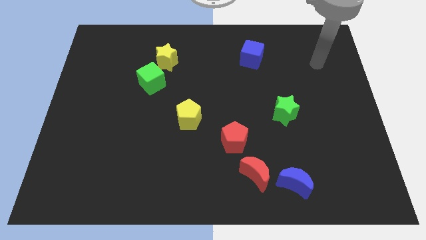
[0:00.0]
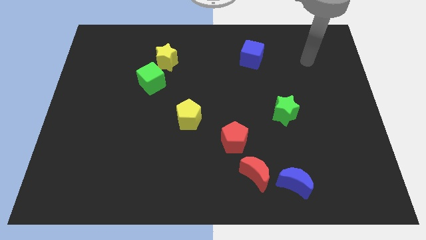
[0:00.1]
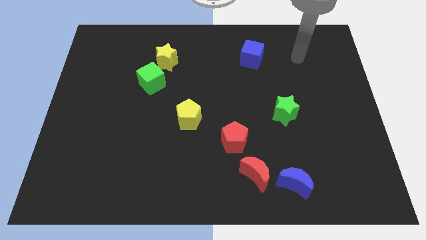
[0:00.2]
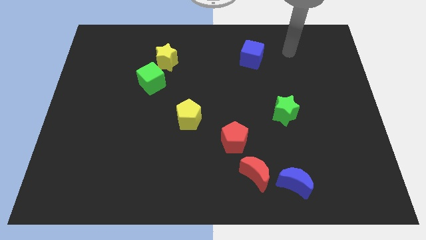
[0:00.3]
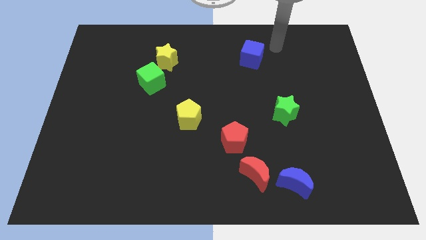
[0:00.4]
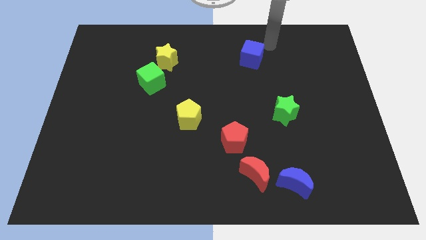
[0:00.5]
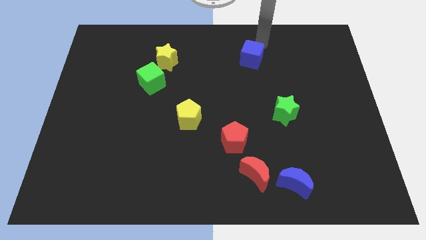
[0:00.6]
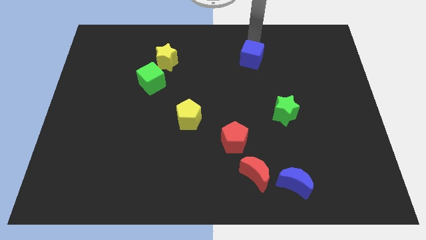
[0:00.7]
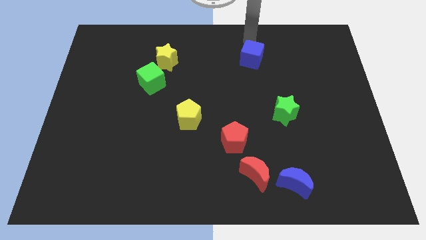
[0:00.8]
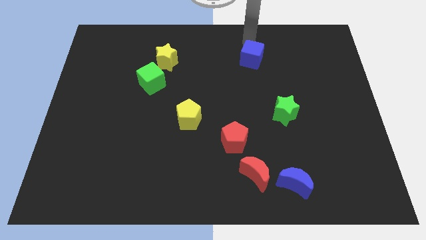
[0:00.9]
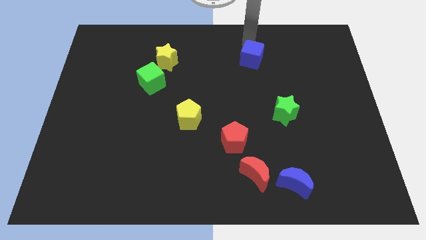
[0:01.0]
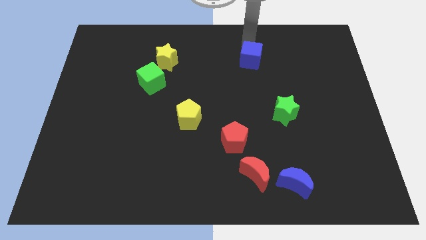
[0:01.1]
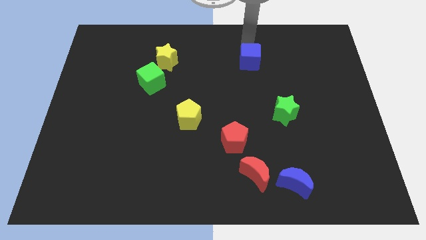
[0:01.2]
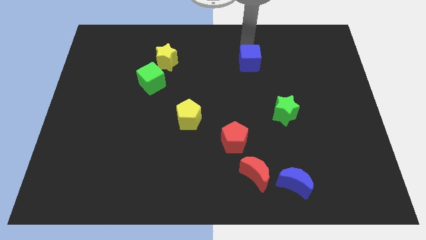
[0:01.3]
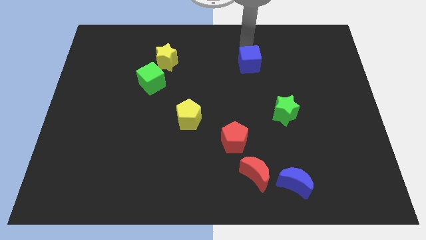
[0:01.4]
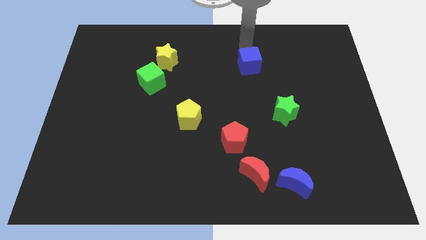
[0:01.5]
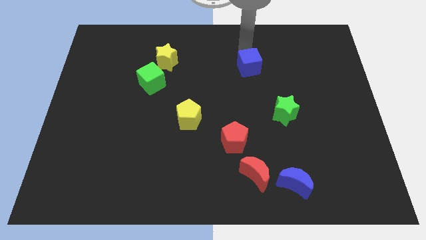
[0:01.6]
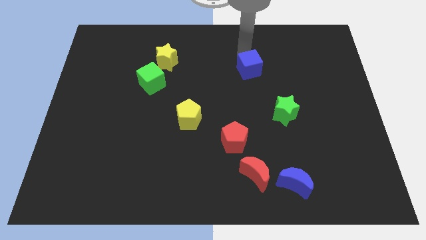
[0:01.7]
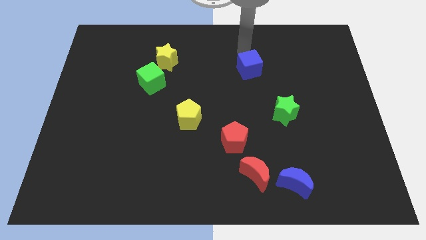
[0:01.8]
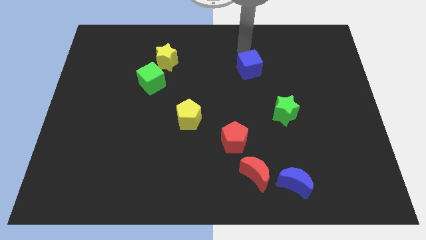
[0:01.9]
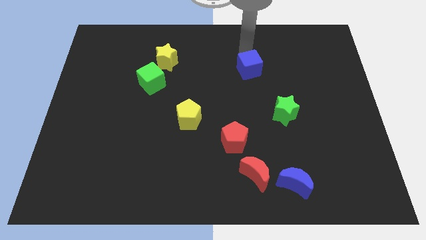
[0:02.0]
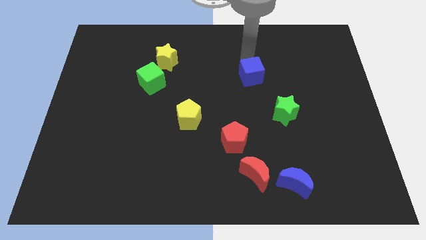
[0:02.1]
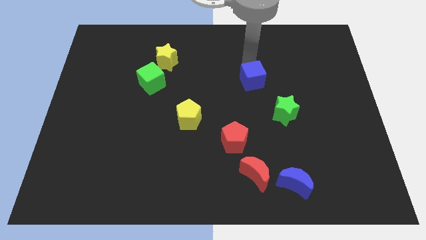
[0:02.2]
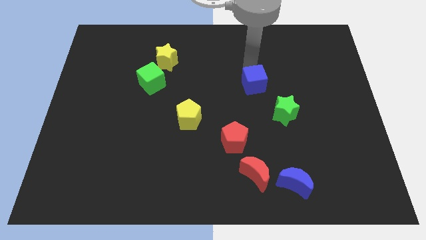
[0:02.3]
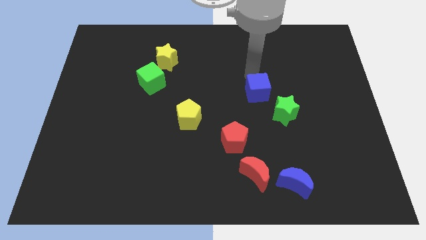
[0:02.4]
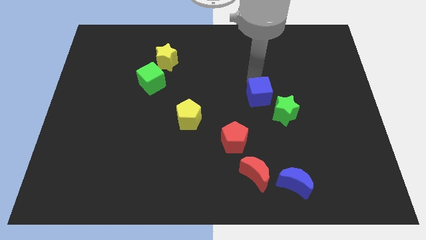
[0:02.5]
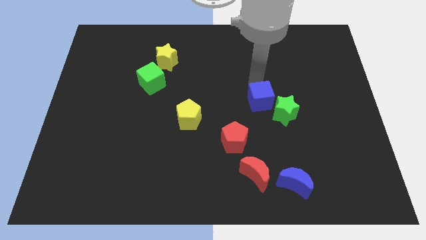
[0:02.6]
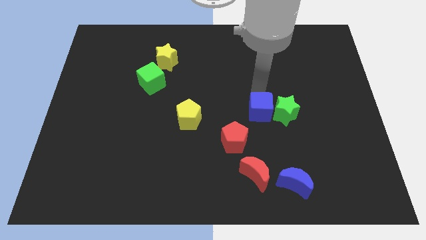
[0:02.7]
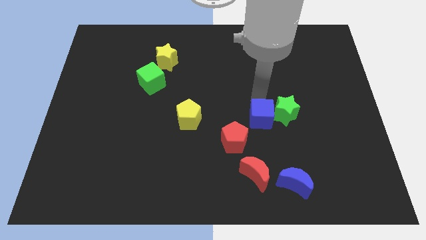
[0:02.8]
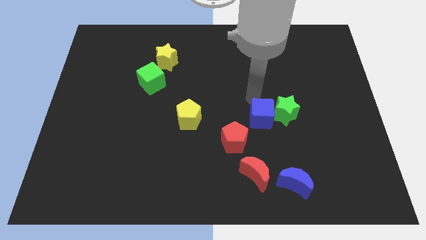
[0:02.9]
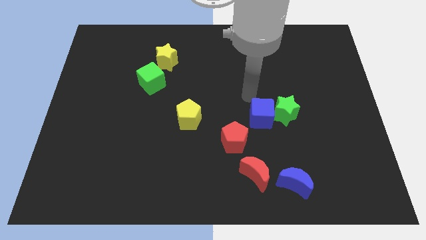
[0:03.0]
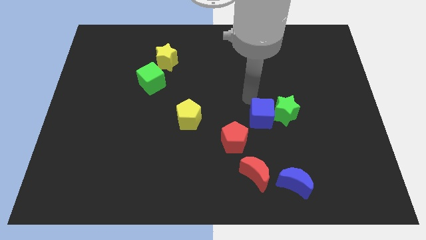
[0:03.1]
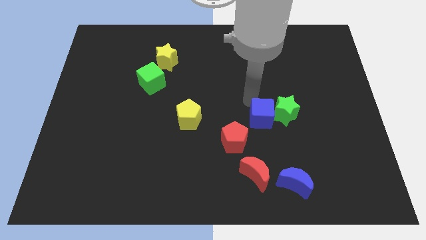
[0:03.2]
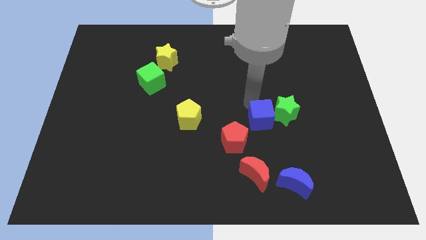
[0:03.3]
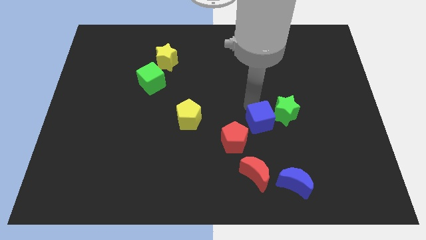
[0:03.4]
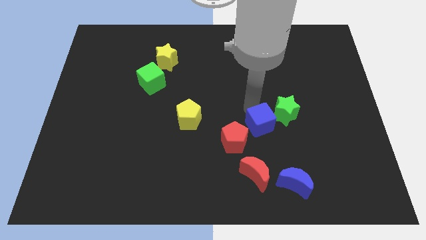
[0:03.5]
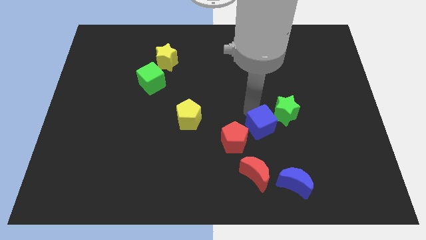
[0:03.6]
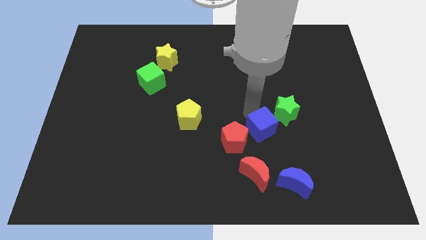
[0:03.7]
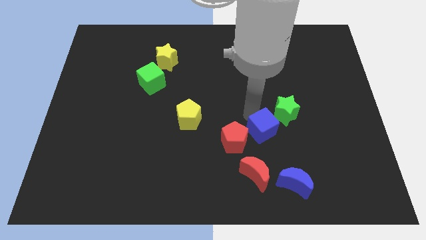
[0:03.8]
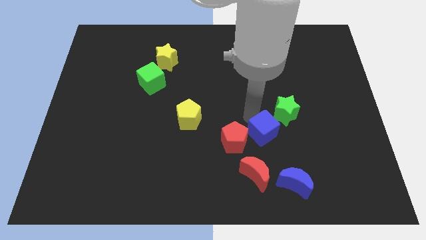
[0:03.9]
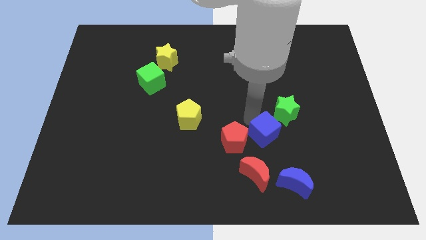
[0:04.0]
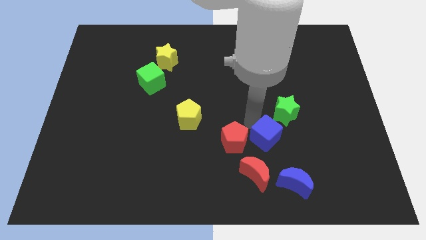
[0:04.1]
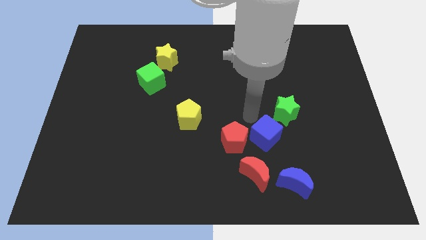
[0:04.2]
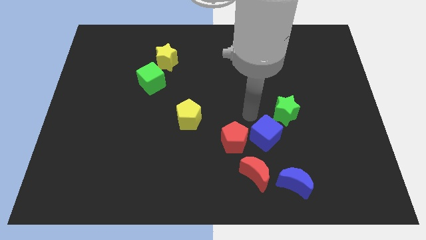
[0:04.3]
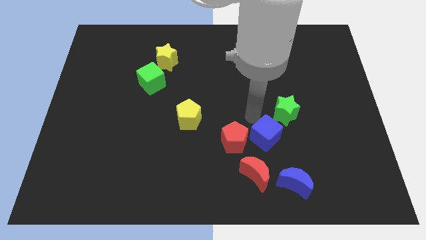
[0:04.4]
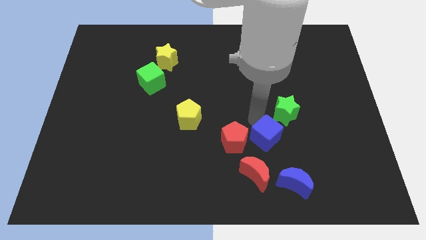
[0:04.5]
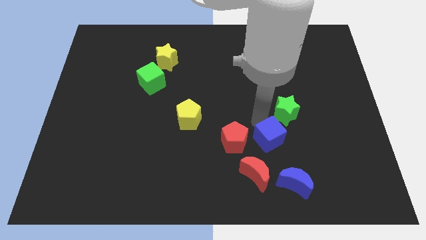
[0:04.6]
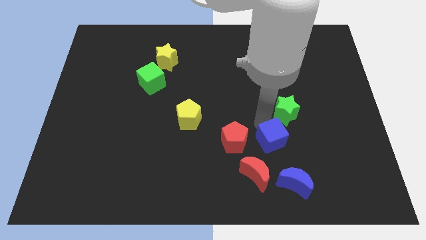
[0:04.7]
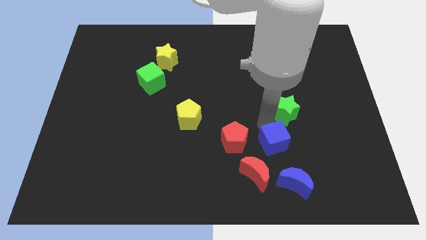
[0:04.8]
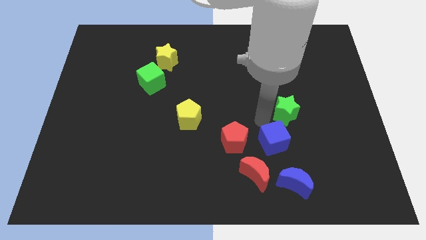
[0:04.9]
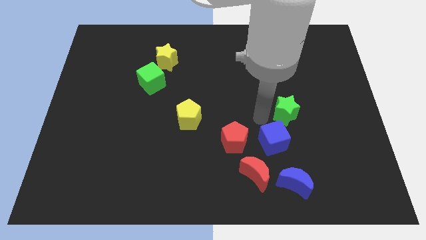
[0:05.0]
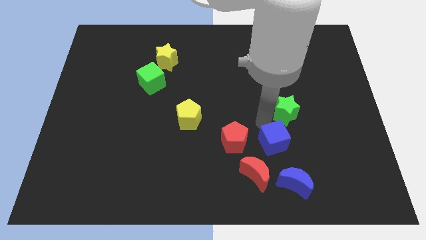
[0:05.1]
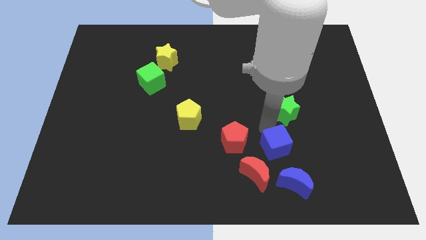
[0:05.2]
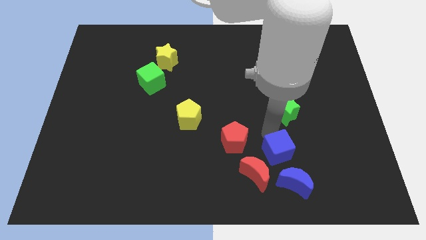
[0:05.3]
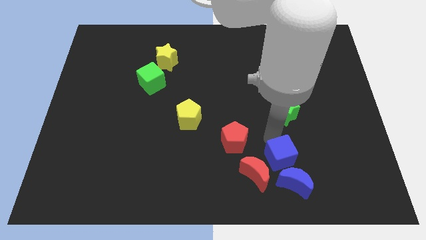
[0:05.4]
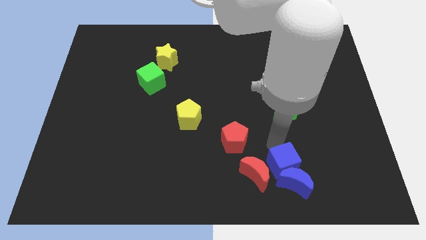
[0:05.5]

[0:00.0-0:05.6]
move the blue cube close to the blue moon

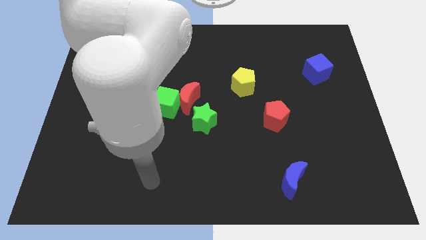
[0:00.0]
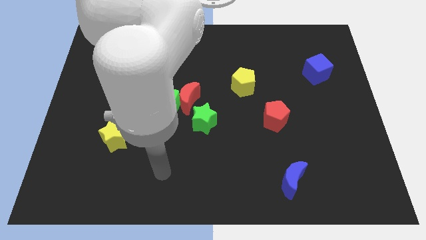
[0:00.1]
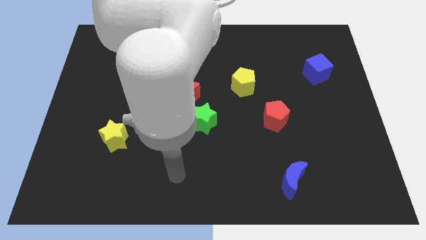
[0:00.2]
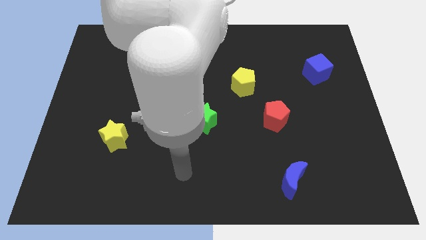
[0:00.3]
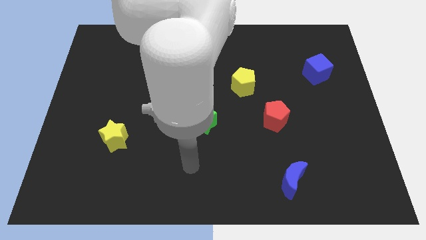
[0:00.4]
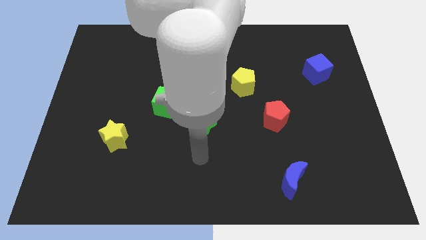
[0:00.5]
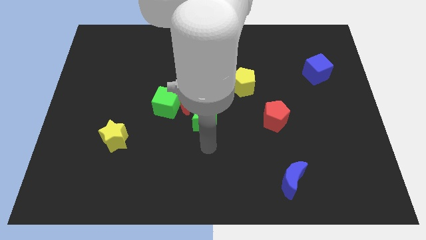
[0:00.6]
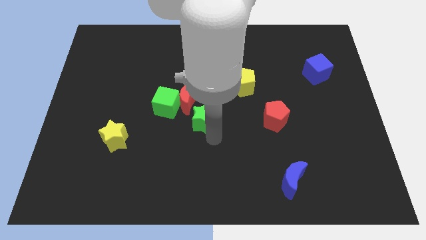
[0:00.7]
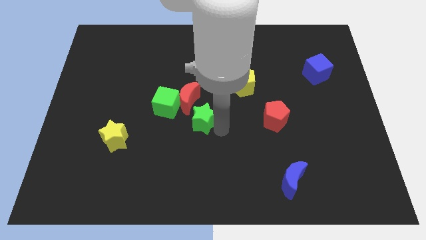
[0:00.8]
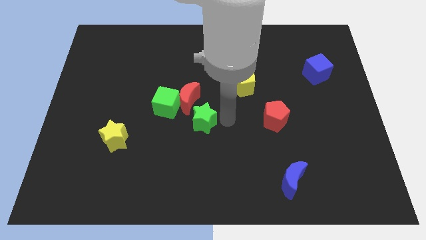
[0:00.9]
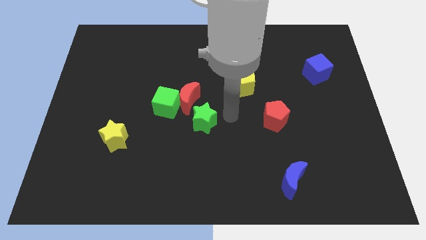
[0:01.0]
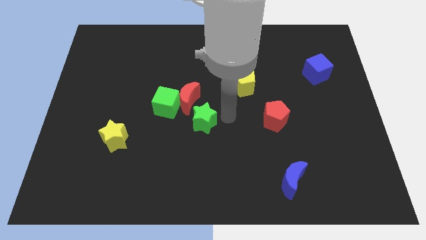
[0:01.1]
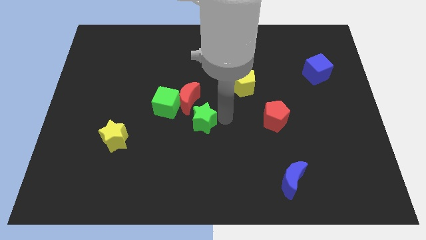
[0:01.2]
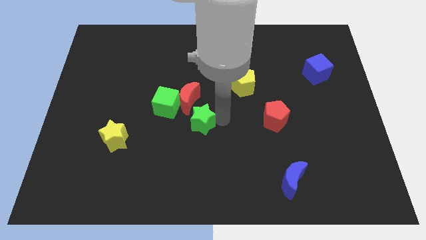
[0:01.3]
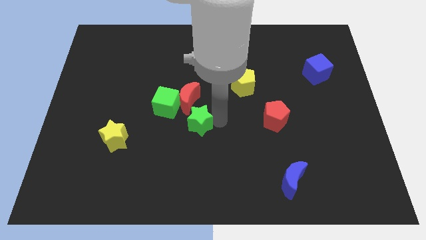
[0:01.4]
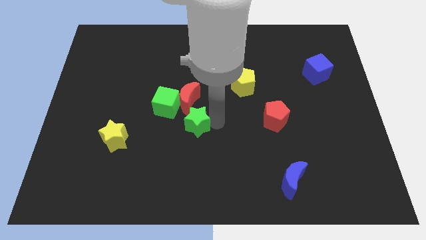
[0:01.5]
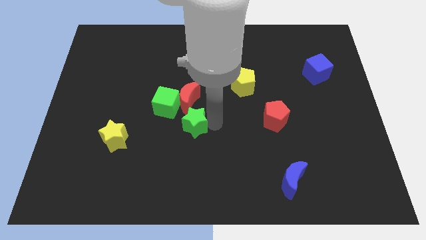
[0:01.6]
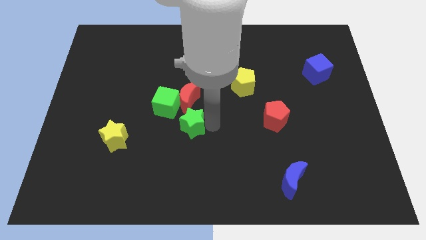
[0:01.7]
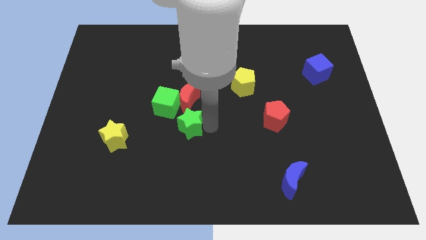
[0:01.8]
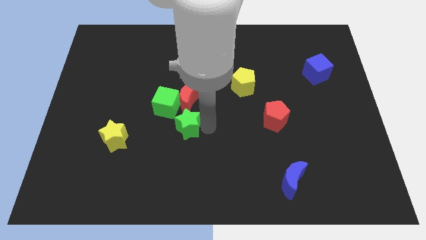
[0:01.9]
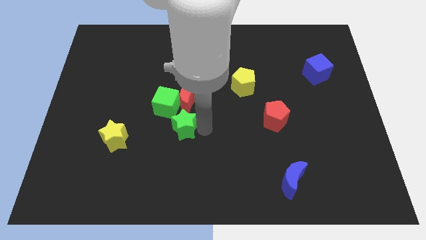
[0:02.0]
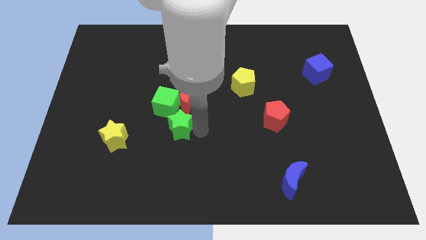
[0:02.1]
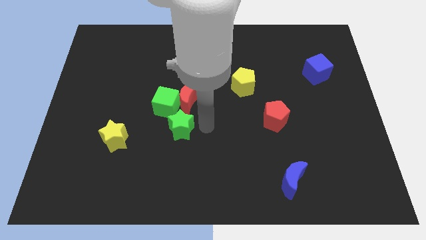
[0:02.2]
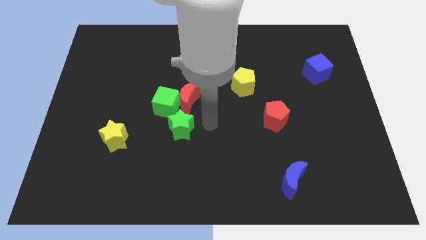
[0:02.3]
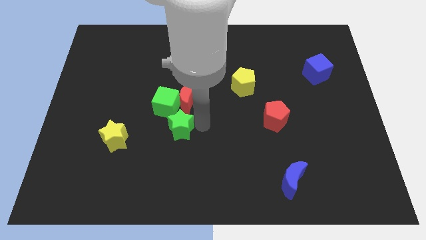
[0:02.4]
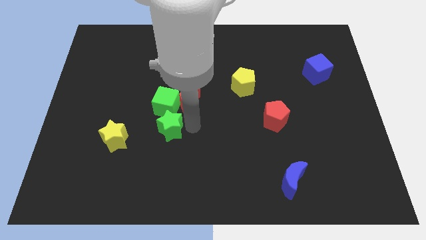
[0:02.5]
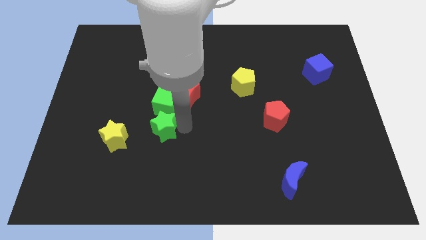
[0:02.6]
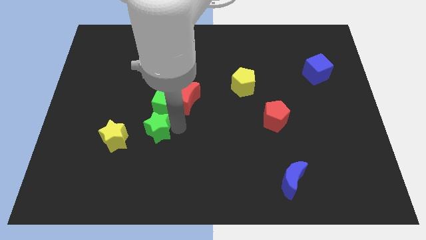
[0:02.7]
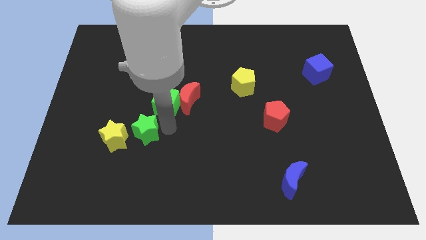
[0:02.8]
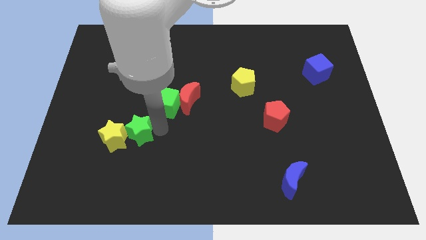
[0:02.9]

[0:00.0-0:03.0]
push the green star to the yellow star
